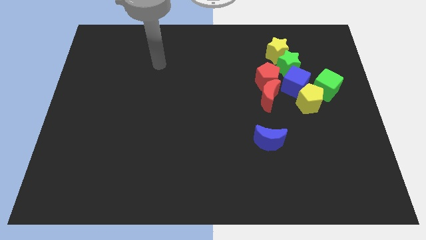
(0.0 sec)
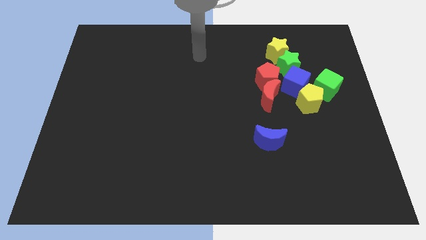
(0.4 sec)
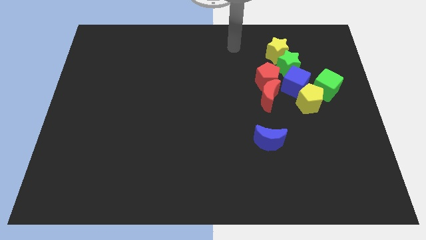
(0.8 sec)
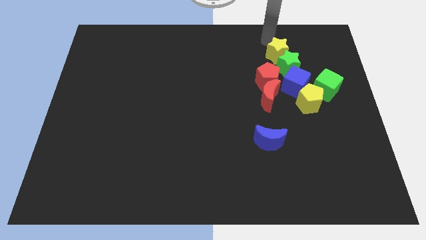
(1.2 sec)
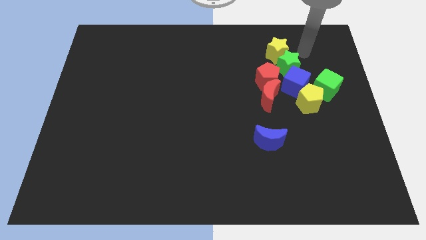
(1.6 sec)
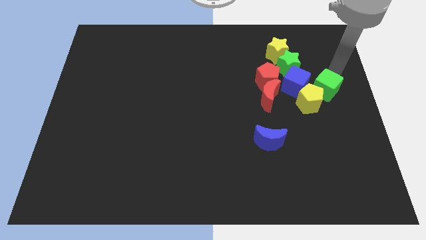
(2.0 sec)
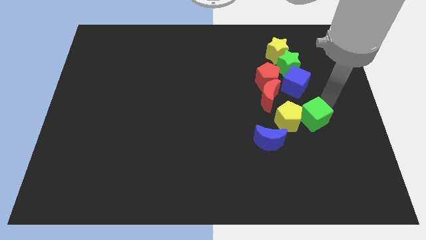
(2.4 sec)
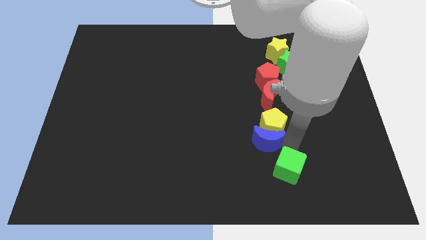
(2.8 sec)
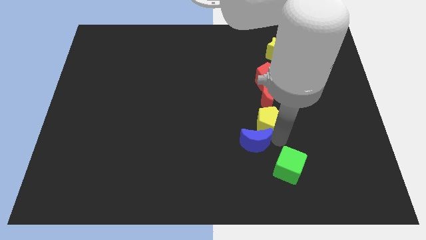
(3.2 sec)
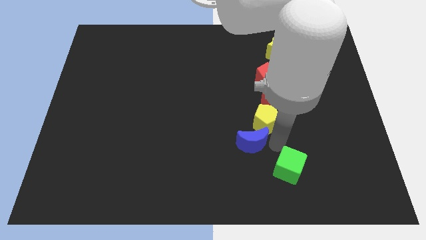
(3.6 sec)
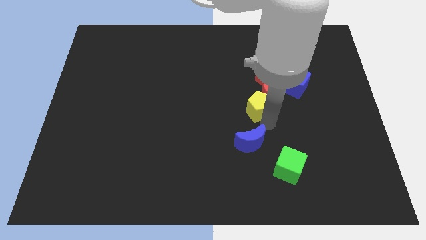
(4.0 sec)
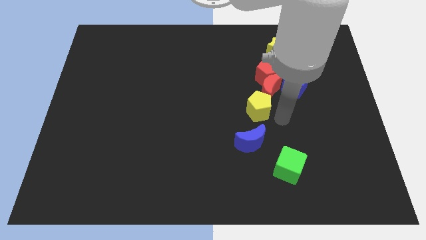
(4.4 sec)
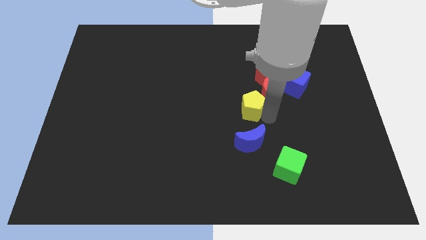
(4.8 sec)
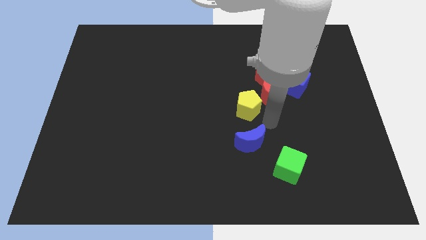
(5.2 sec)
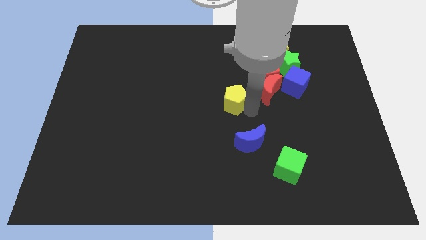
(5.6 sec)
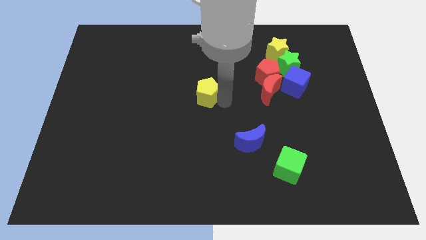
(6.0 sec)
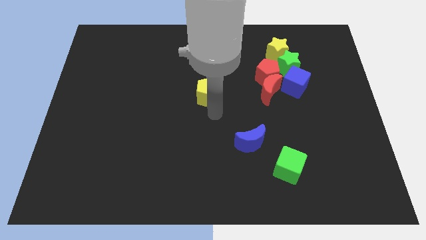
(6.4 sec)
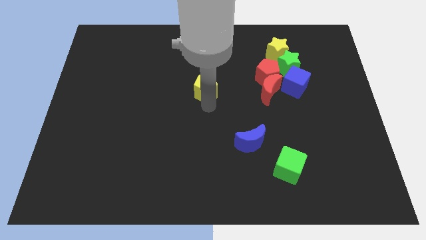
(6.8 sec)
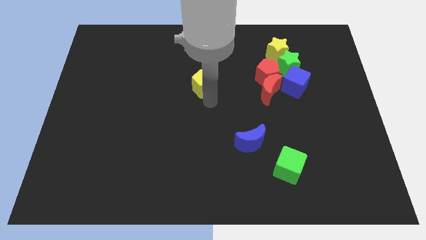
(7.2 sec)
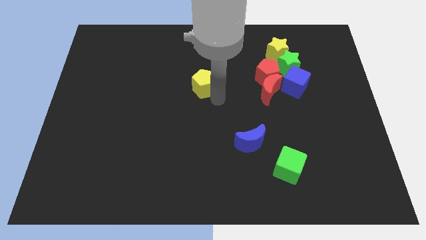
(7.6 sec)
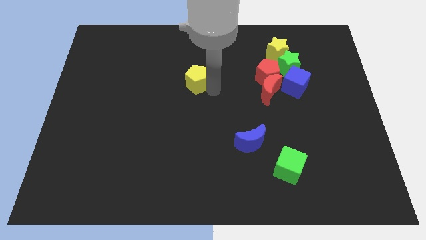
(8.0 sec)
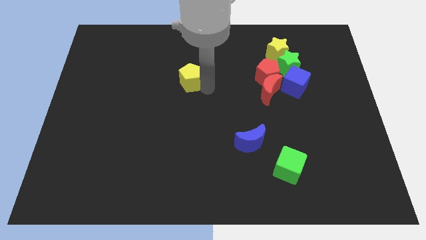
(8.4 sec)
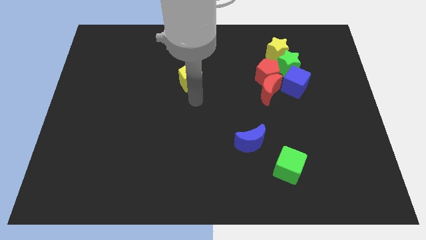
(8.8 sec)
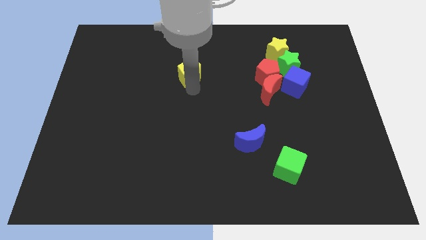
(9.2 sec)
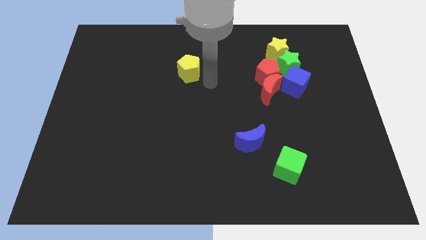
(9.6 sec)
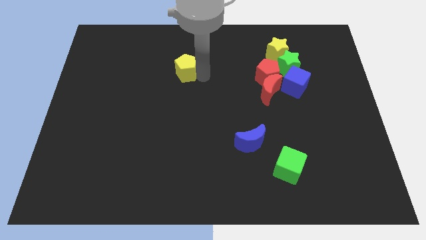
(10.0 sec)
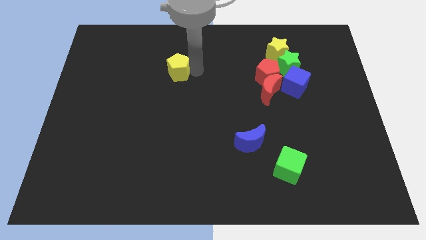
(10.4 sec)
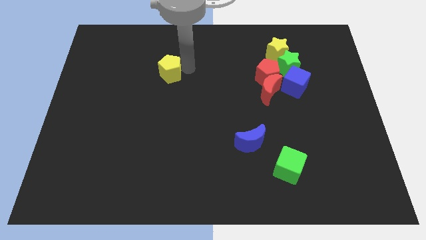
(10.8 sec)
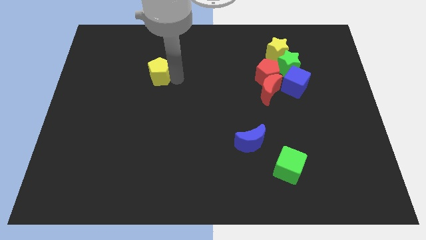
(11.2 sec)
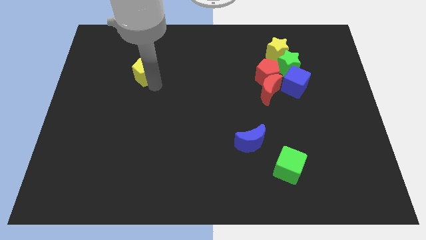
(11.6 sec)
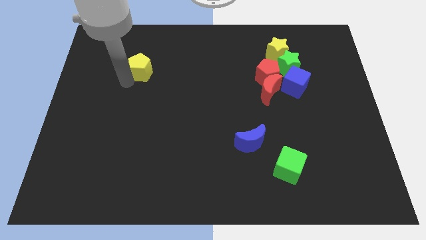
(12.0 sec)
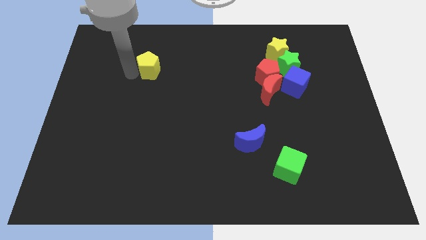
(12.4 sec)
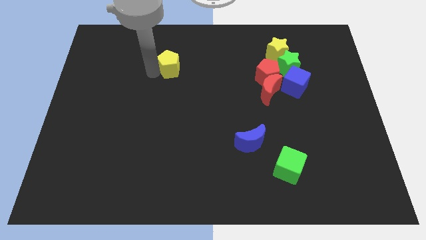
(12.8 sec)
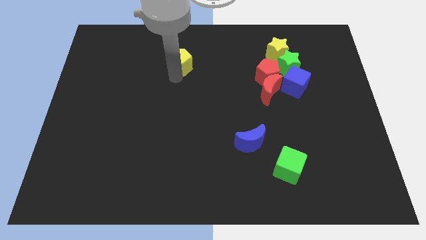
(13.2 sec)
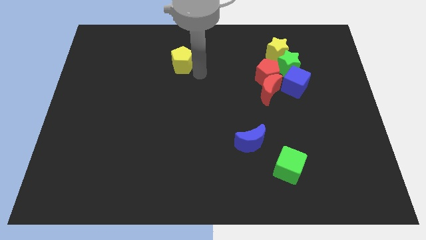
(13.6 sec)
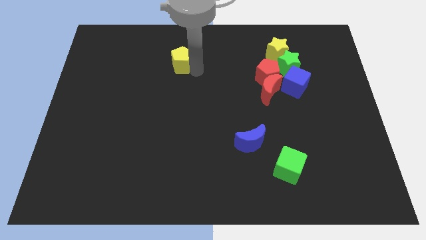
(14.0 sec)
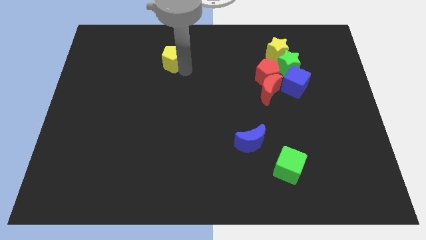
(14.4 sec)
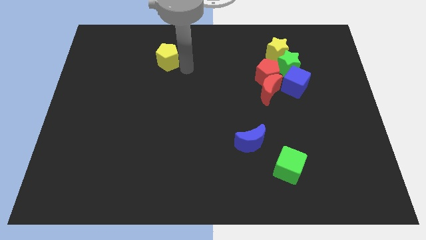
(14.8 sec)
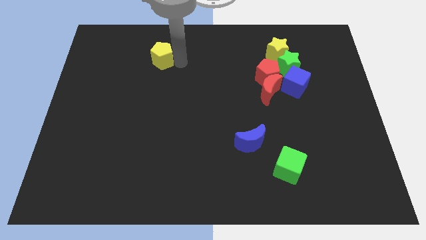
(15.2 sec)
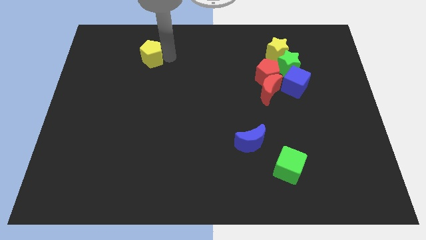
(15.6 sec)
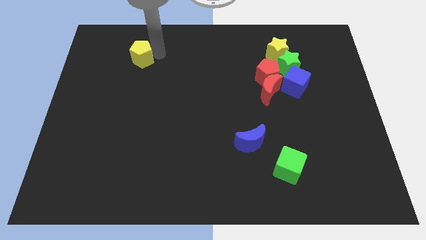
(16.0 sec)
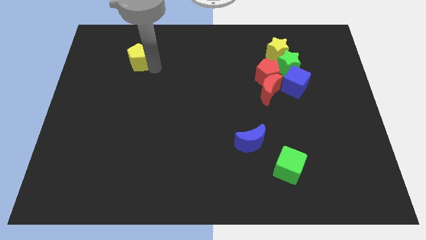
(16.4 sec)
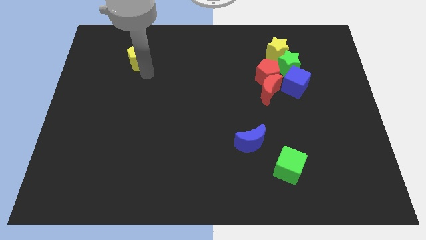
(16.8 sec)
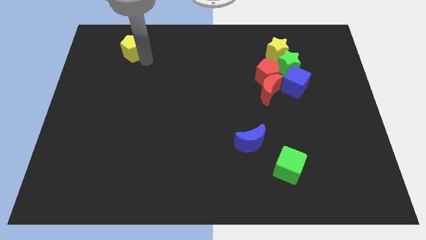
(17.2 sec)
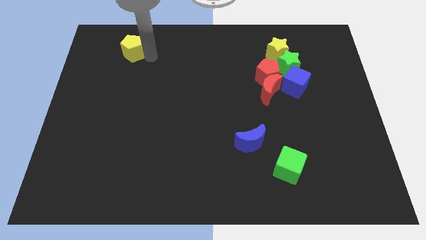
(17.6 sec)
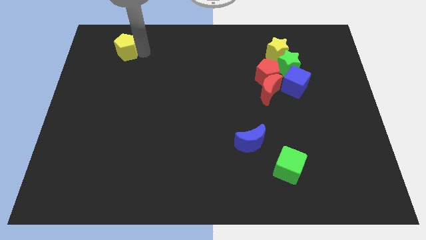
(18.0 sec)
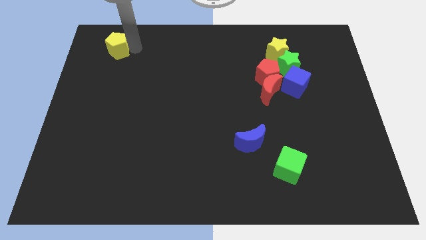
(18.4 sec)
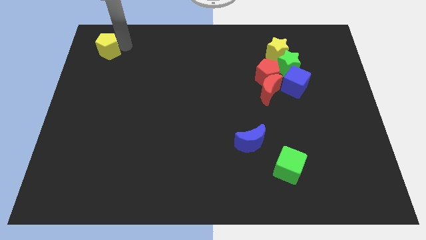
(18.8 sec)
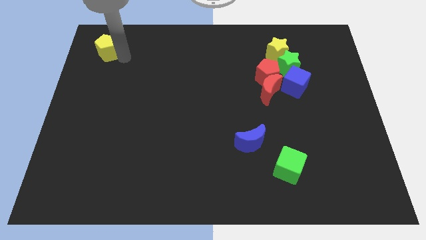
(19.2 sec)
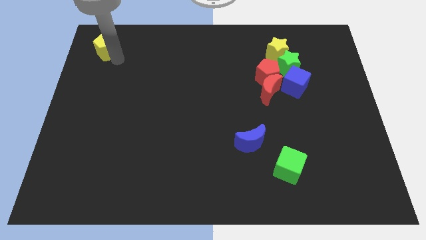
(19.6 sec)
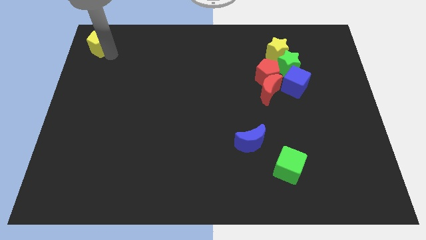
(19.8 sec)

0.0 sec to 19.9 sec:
move the yellow pentagon to the upper left corner

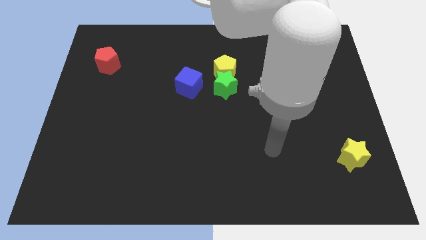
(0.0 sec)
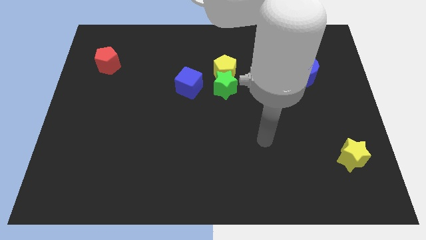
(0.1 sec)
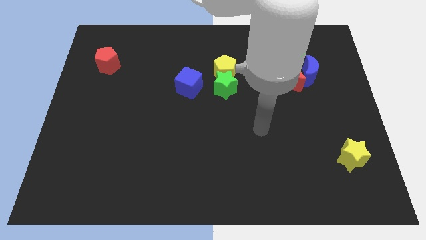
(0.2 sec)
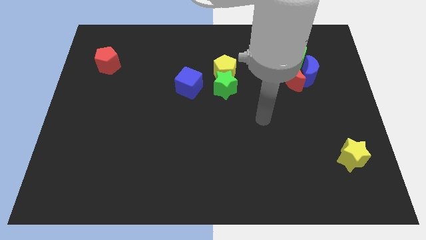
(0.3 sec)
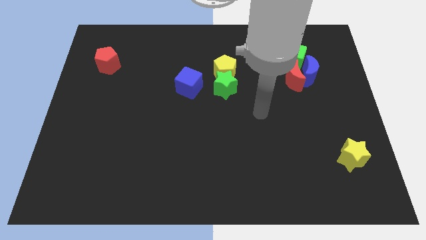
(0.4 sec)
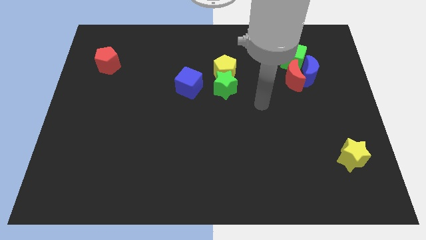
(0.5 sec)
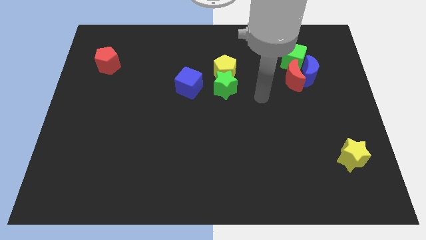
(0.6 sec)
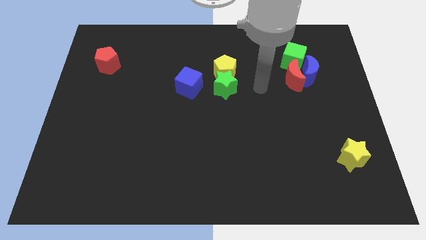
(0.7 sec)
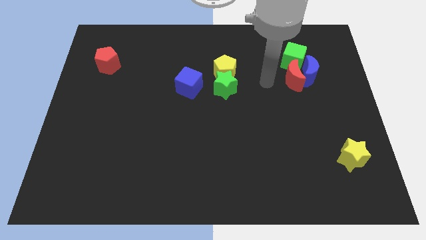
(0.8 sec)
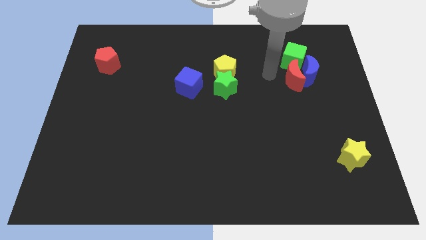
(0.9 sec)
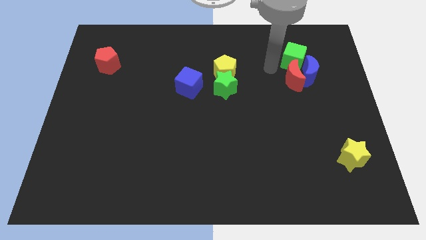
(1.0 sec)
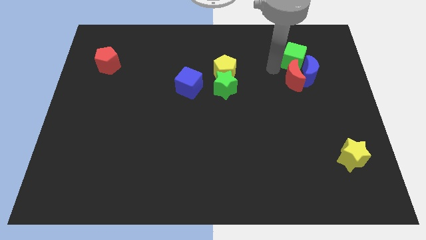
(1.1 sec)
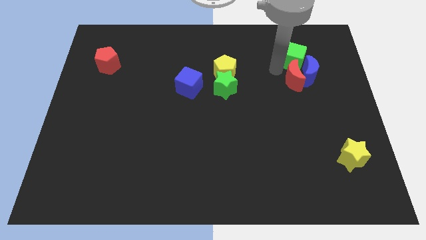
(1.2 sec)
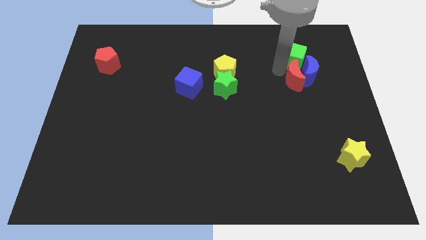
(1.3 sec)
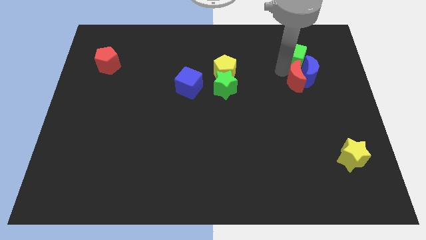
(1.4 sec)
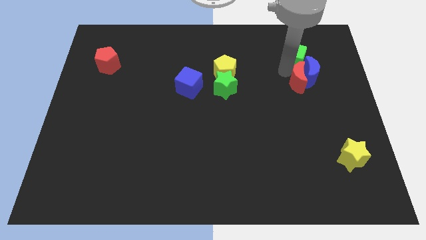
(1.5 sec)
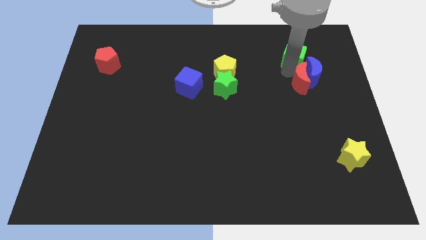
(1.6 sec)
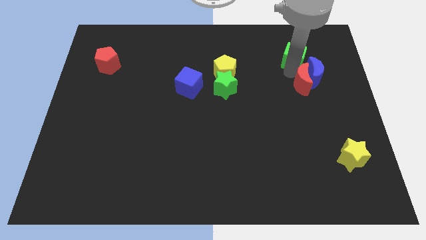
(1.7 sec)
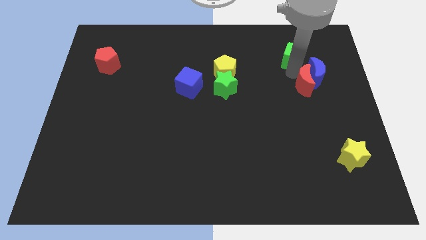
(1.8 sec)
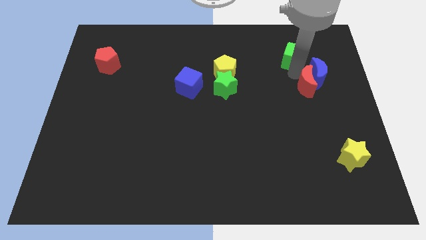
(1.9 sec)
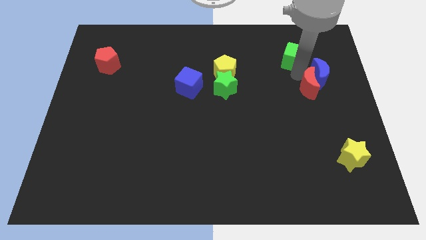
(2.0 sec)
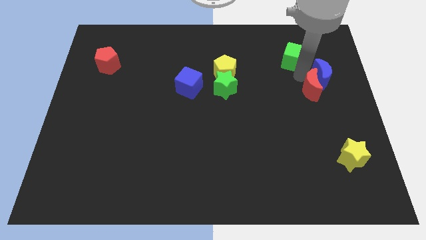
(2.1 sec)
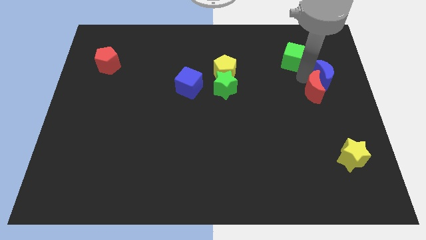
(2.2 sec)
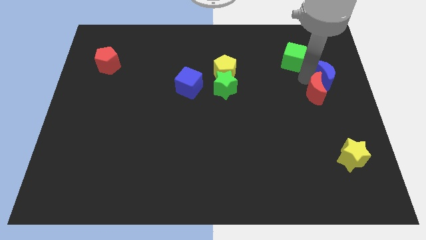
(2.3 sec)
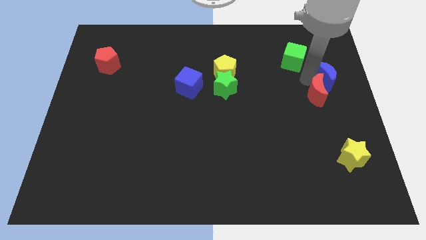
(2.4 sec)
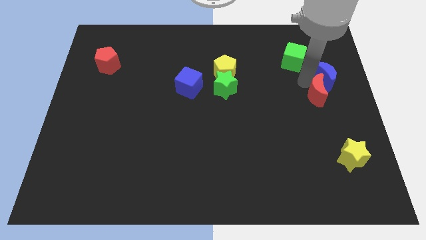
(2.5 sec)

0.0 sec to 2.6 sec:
push the red moon to the right side of the board

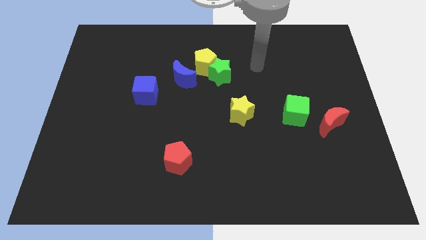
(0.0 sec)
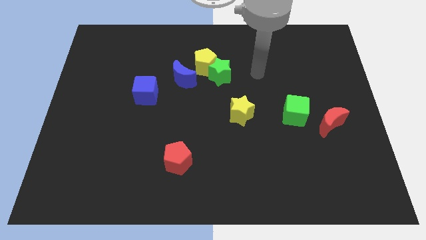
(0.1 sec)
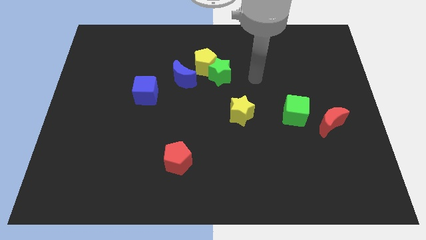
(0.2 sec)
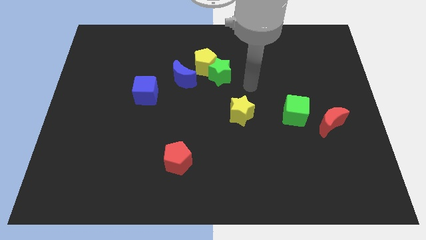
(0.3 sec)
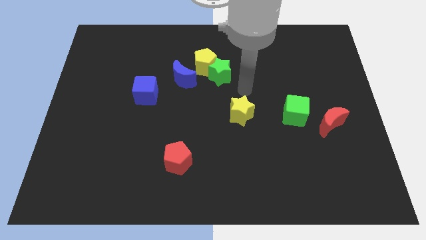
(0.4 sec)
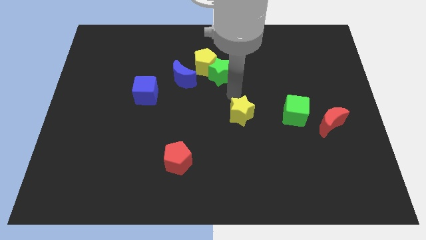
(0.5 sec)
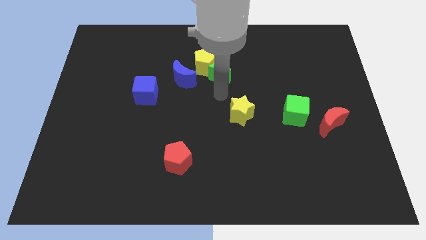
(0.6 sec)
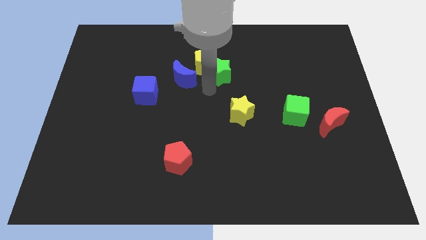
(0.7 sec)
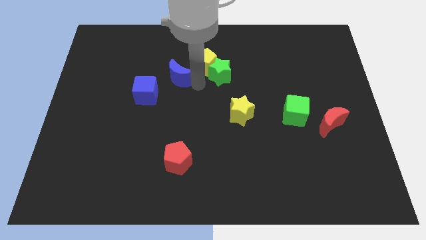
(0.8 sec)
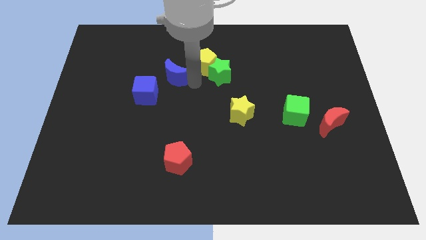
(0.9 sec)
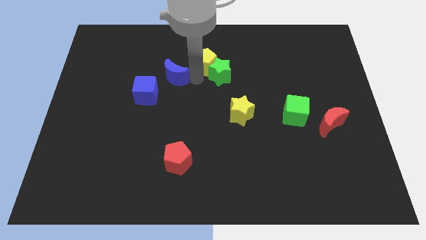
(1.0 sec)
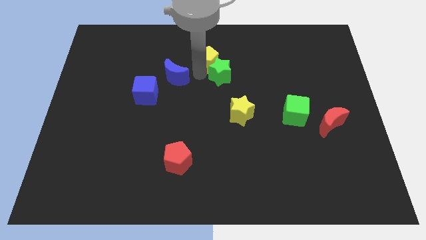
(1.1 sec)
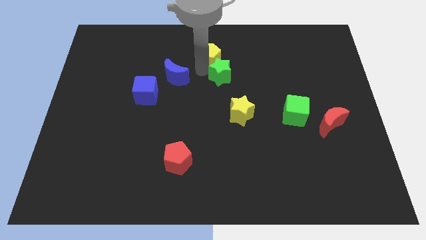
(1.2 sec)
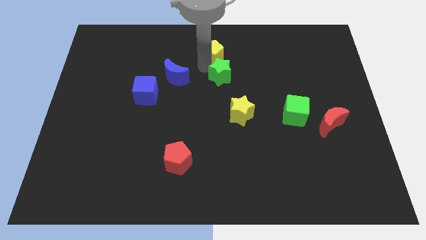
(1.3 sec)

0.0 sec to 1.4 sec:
slide the yellow pentagon to the top side
